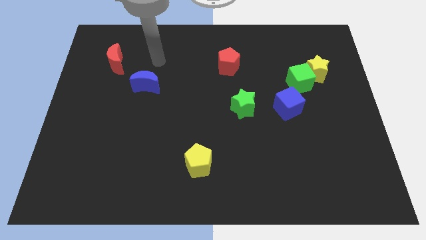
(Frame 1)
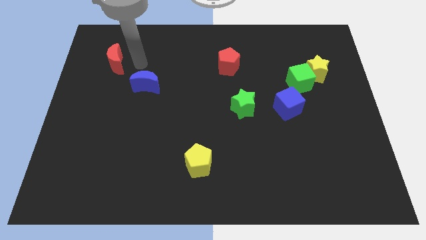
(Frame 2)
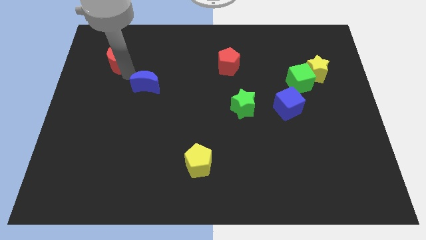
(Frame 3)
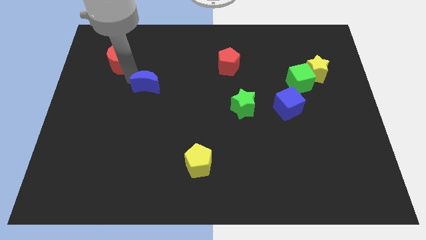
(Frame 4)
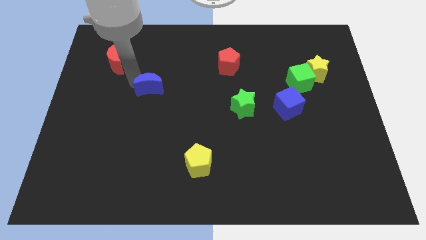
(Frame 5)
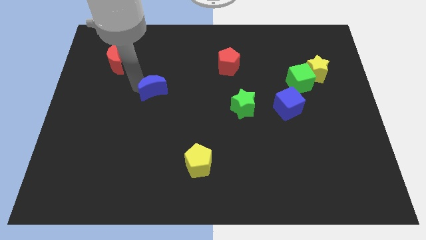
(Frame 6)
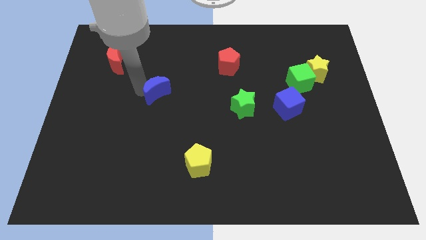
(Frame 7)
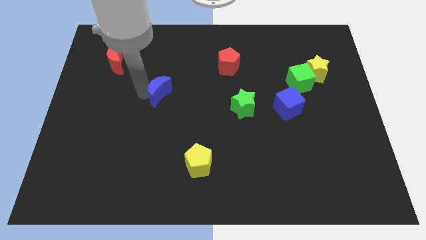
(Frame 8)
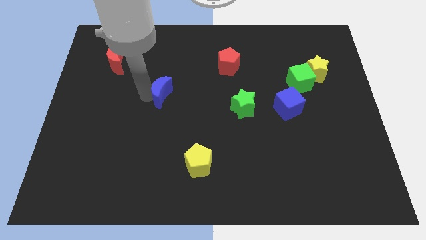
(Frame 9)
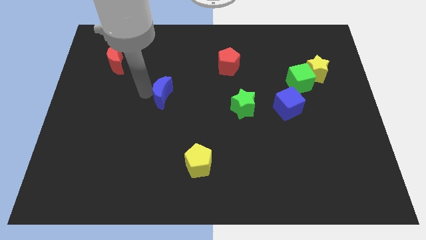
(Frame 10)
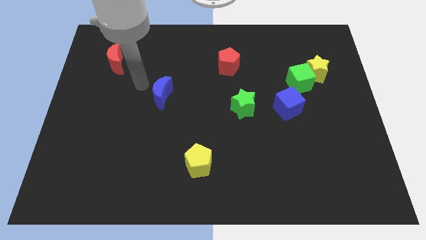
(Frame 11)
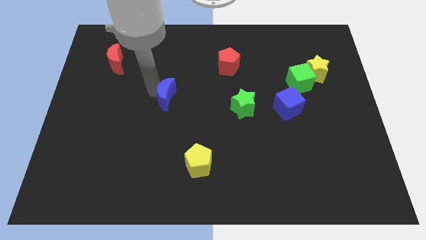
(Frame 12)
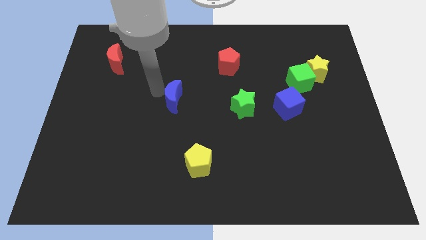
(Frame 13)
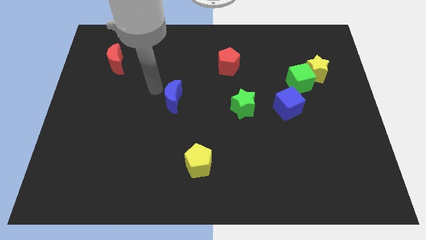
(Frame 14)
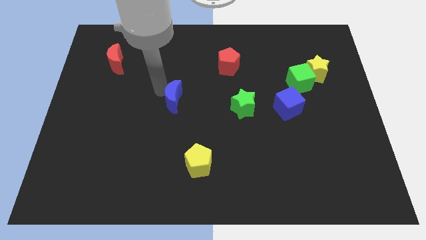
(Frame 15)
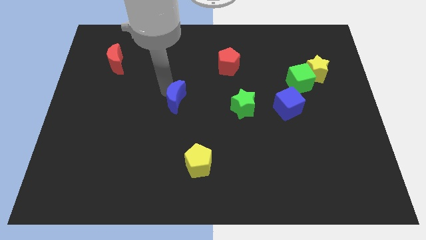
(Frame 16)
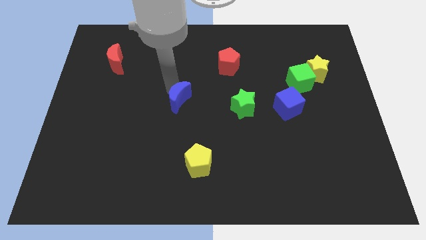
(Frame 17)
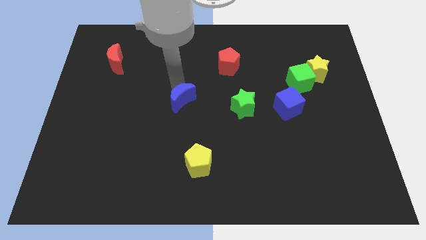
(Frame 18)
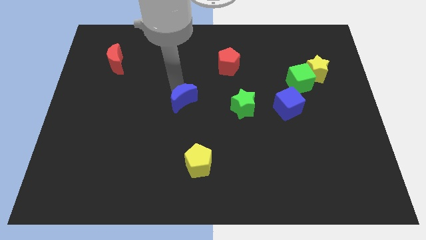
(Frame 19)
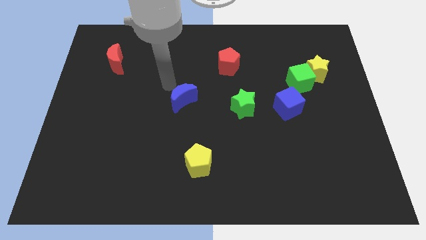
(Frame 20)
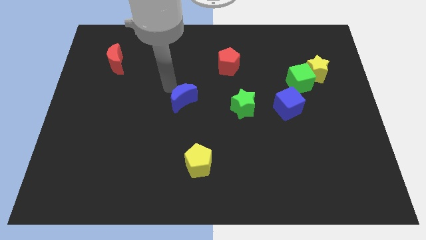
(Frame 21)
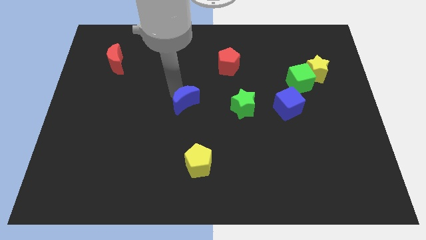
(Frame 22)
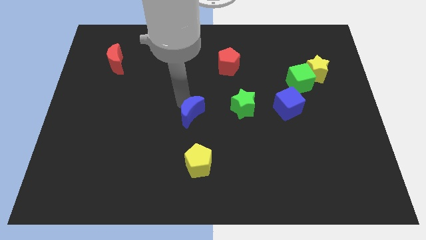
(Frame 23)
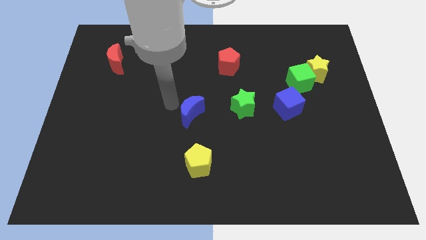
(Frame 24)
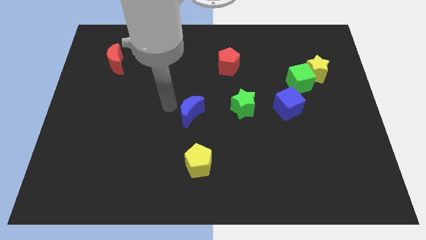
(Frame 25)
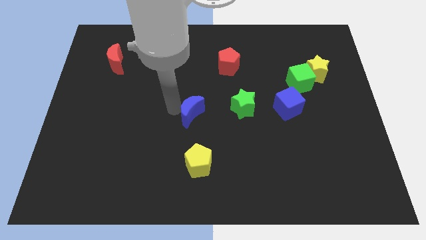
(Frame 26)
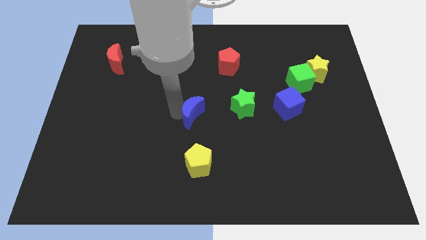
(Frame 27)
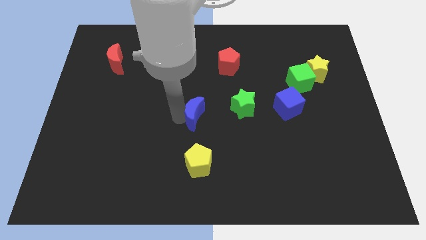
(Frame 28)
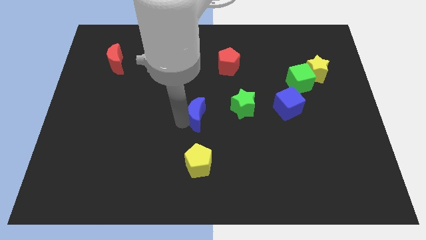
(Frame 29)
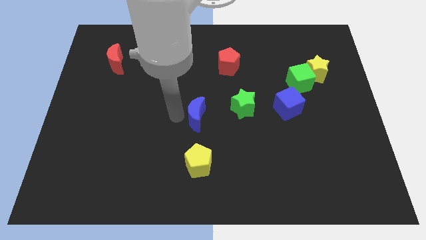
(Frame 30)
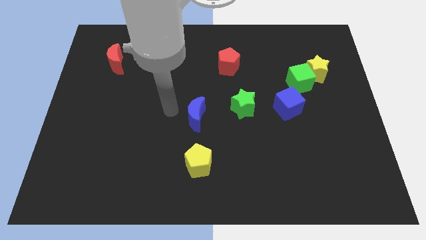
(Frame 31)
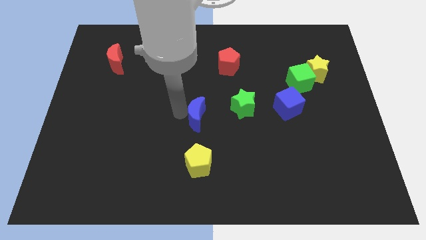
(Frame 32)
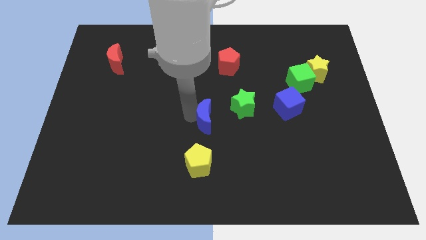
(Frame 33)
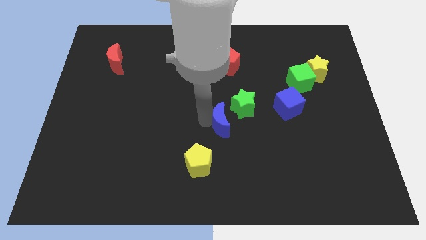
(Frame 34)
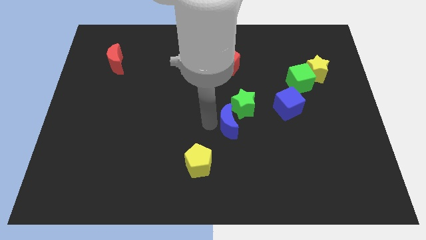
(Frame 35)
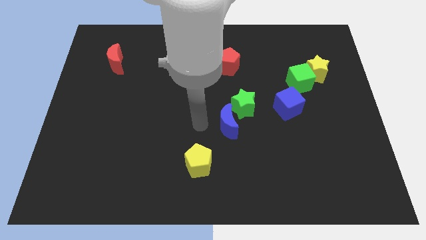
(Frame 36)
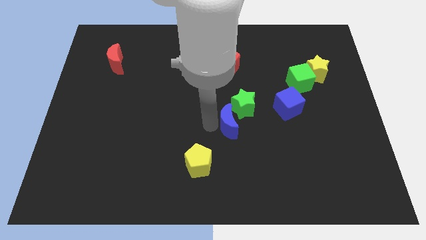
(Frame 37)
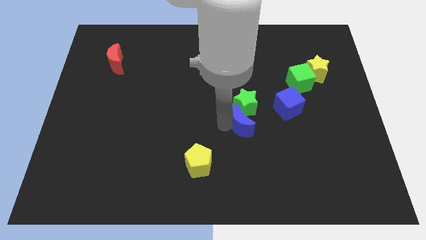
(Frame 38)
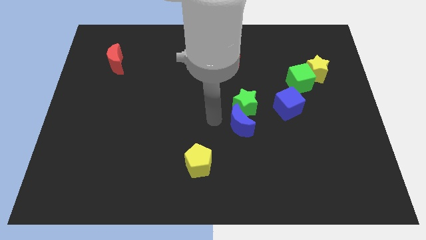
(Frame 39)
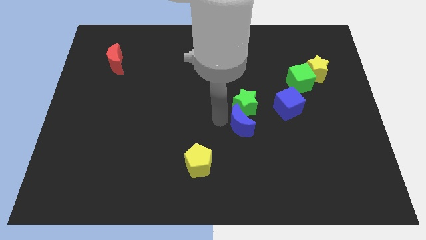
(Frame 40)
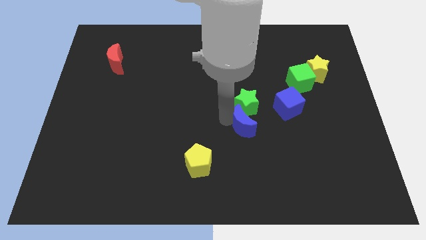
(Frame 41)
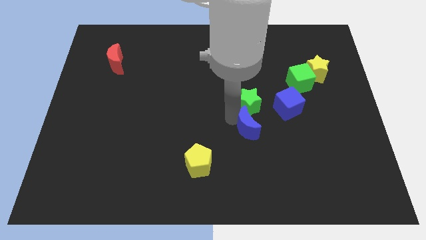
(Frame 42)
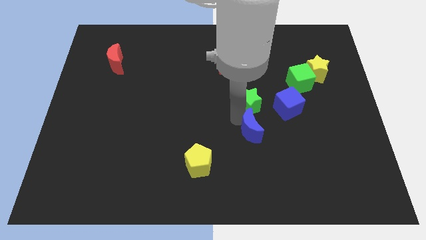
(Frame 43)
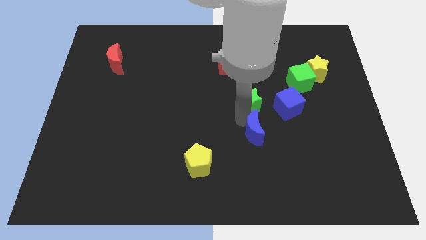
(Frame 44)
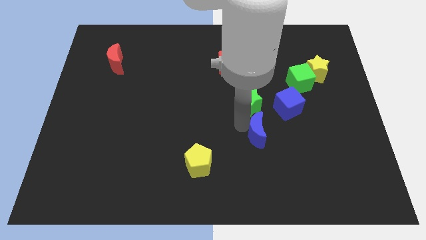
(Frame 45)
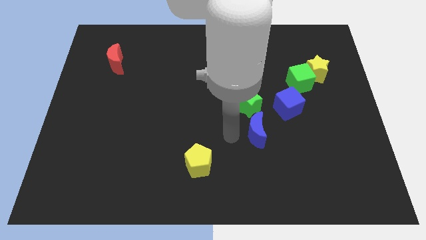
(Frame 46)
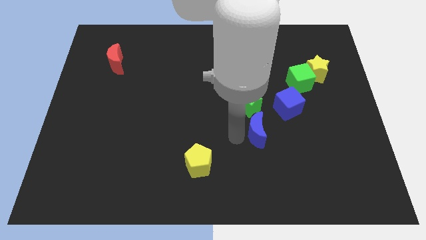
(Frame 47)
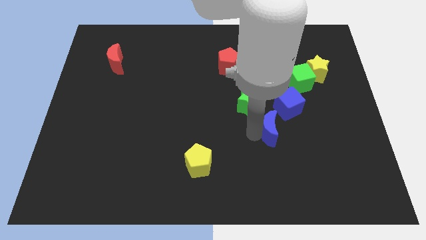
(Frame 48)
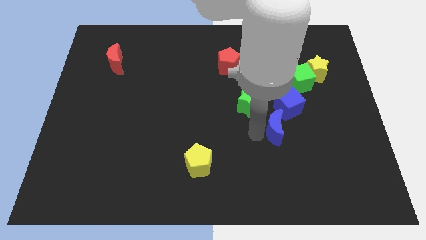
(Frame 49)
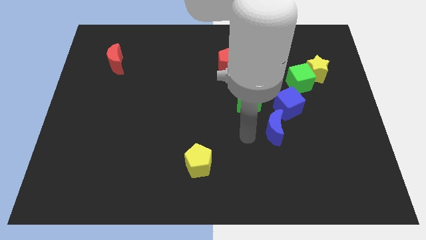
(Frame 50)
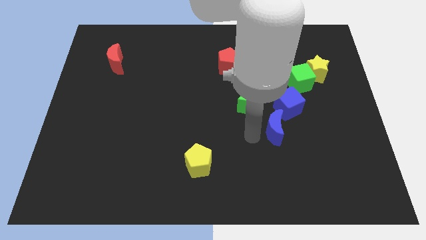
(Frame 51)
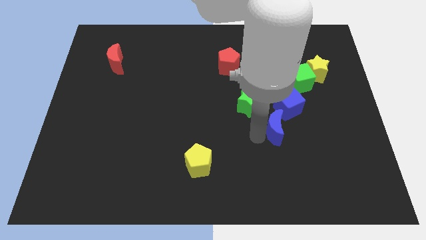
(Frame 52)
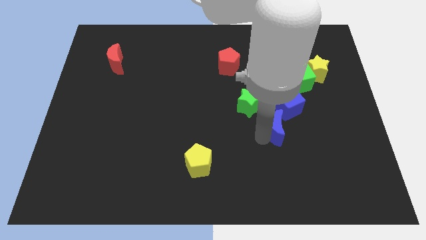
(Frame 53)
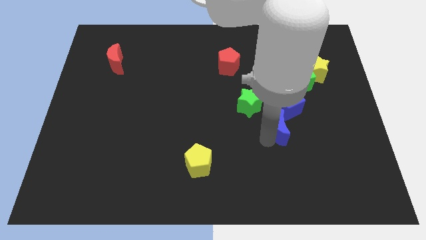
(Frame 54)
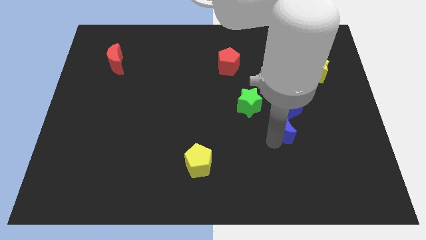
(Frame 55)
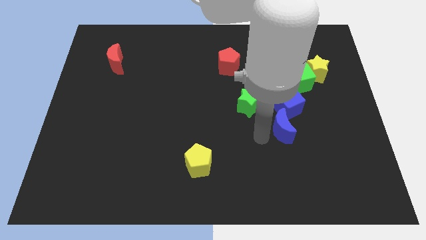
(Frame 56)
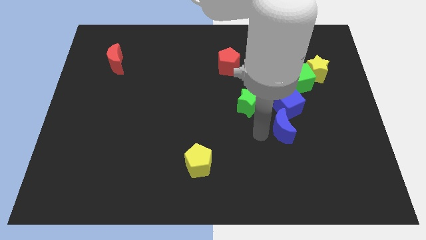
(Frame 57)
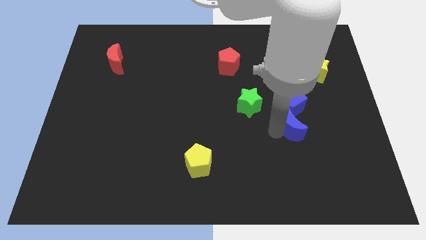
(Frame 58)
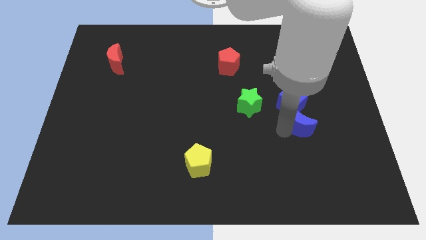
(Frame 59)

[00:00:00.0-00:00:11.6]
push the blue moon to the bottom right side of the blue cube

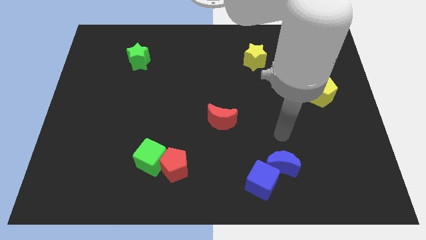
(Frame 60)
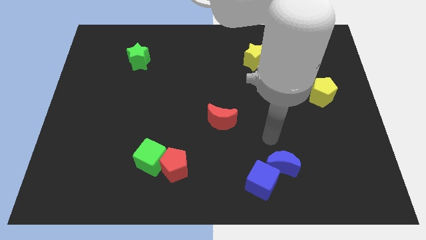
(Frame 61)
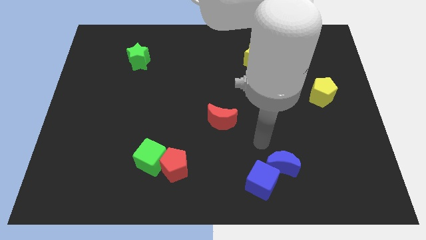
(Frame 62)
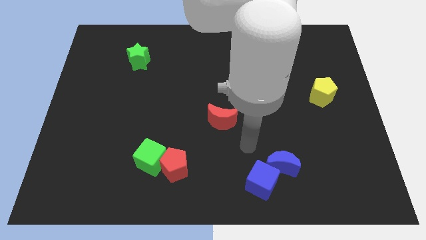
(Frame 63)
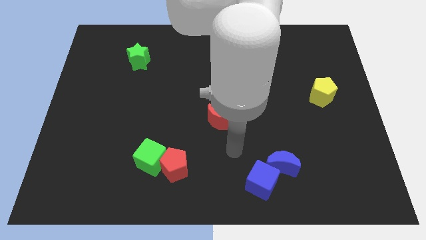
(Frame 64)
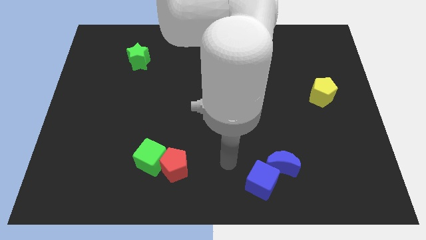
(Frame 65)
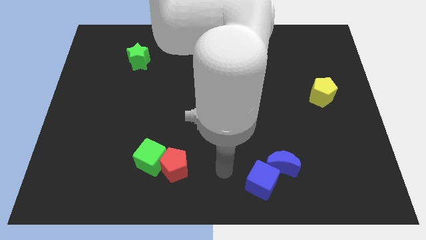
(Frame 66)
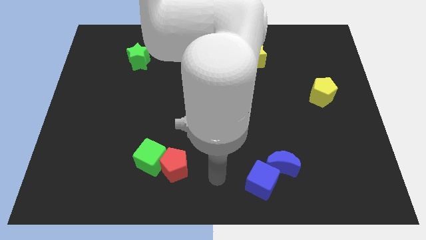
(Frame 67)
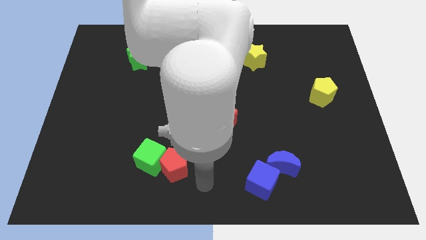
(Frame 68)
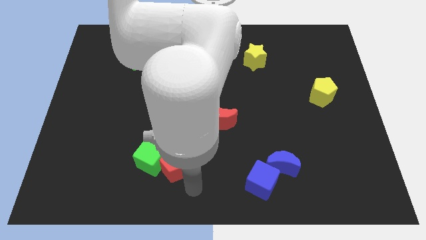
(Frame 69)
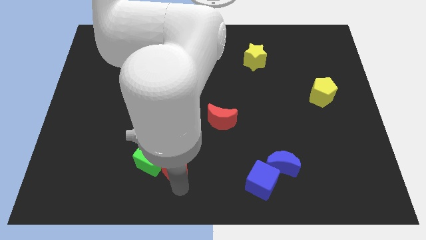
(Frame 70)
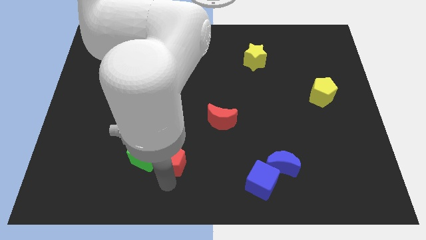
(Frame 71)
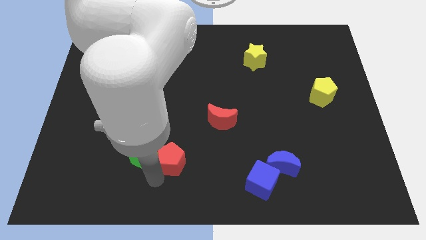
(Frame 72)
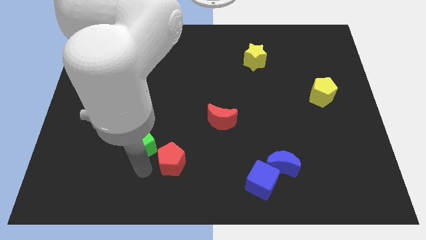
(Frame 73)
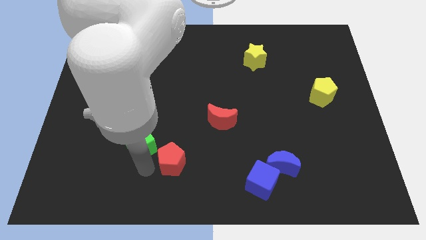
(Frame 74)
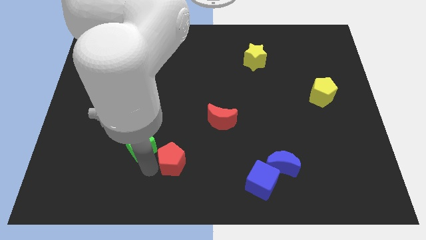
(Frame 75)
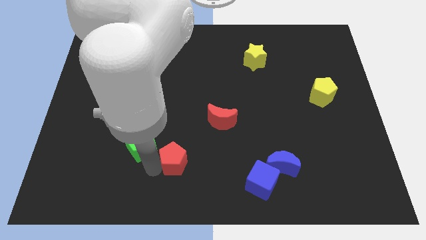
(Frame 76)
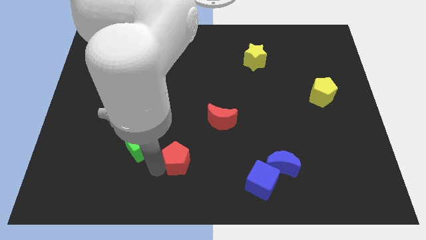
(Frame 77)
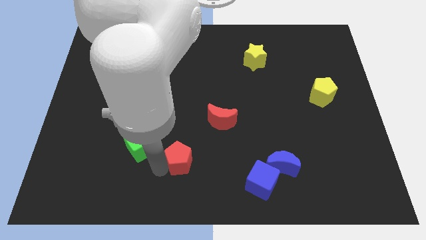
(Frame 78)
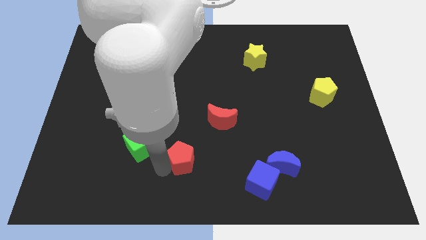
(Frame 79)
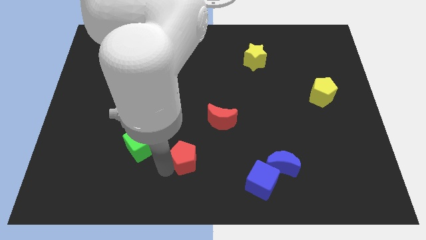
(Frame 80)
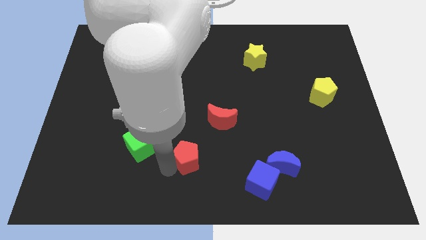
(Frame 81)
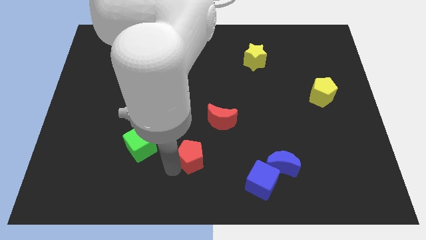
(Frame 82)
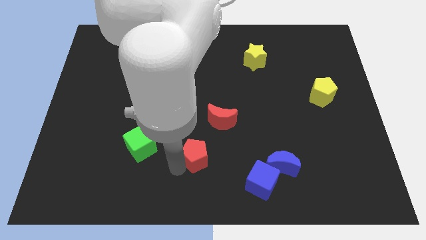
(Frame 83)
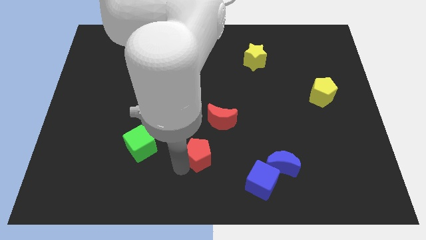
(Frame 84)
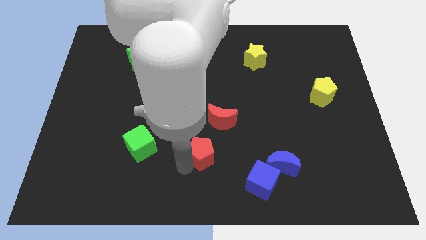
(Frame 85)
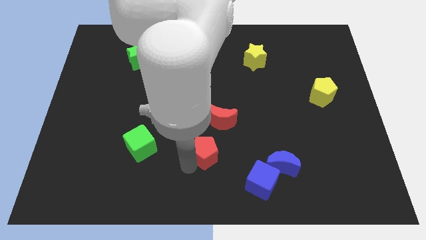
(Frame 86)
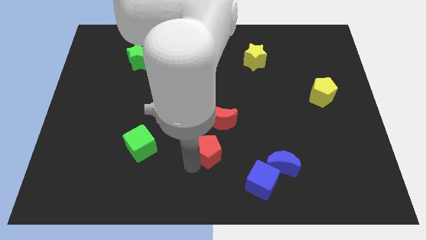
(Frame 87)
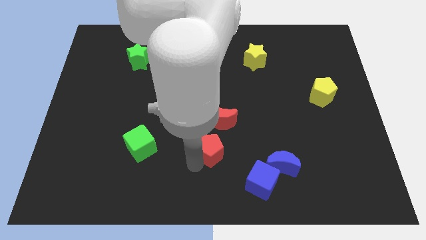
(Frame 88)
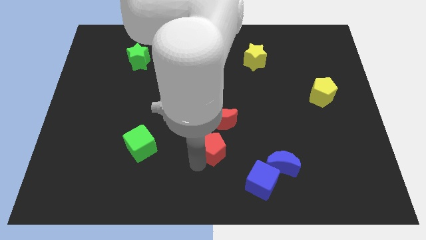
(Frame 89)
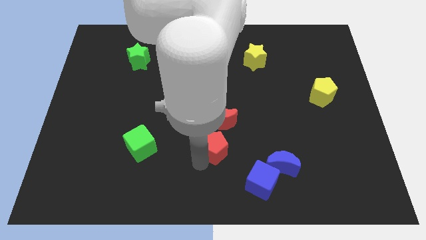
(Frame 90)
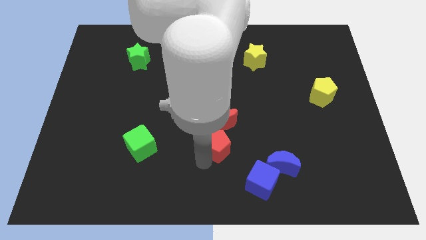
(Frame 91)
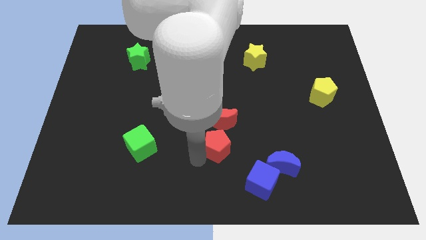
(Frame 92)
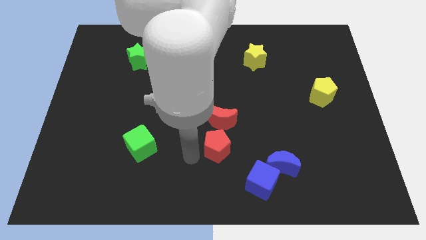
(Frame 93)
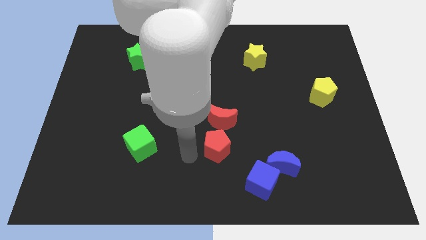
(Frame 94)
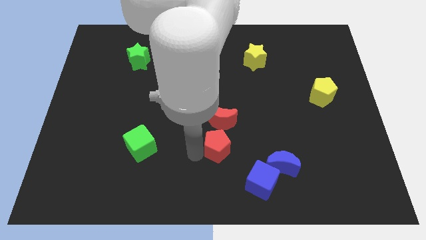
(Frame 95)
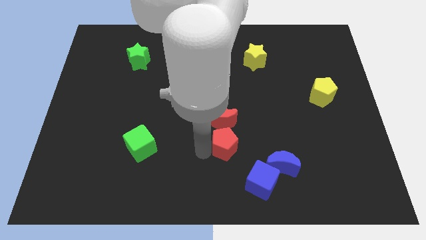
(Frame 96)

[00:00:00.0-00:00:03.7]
push the red pentagon diagonally down and to the right of the red moon
